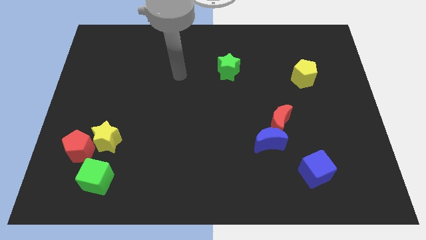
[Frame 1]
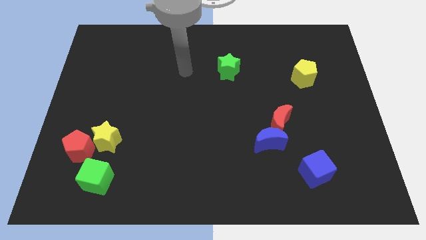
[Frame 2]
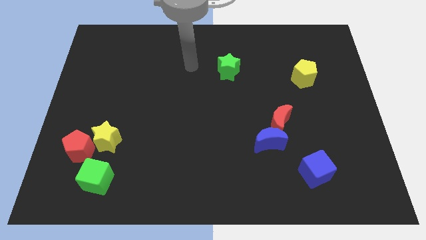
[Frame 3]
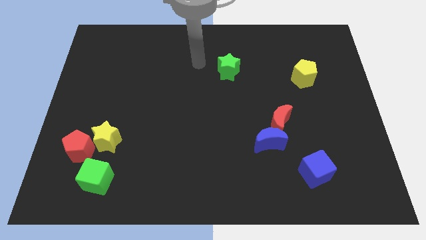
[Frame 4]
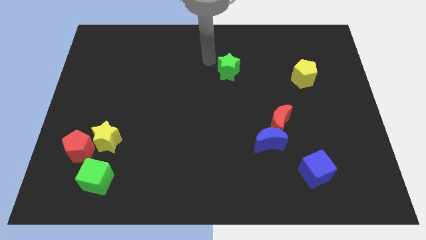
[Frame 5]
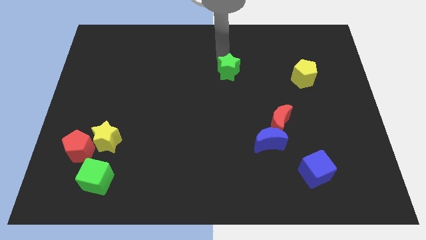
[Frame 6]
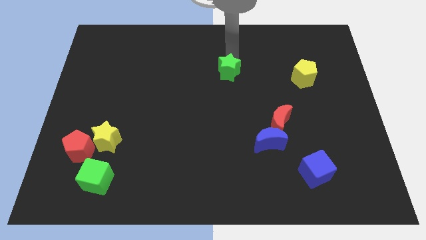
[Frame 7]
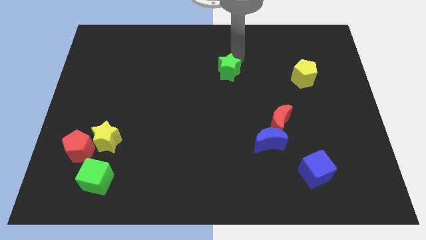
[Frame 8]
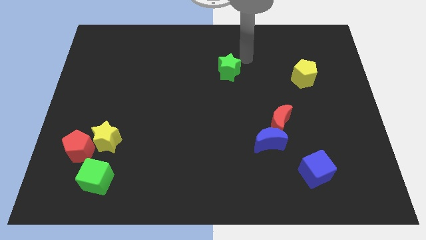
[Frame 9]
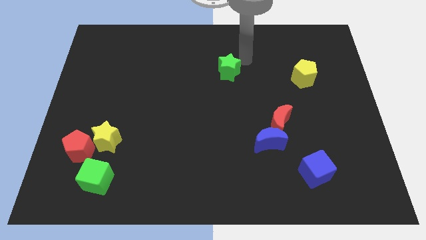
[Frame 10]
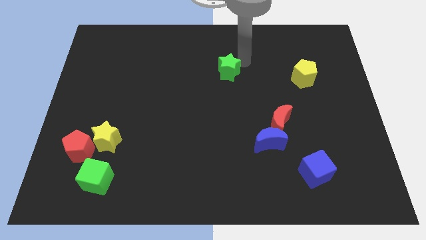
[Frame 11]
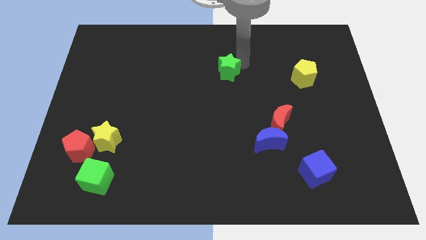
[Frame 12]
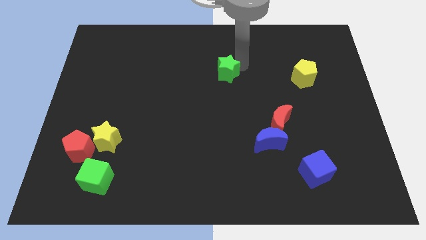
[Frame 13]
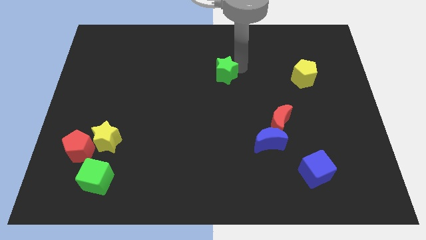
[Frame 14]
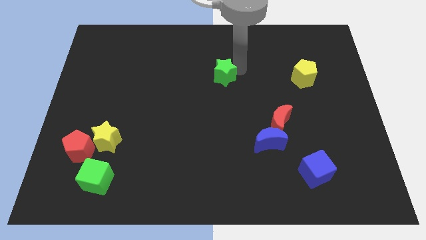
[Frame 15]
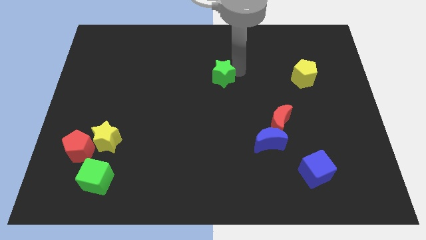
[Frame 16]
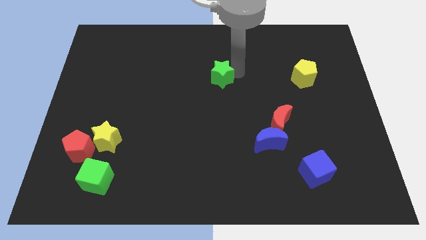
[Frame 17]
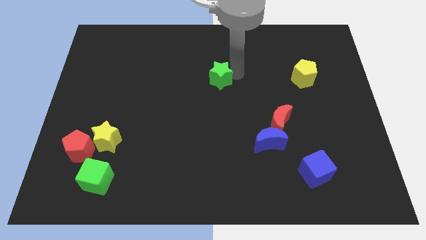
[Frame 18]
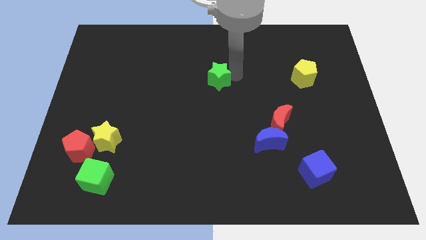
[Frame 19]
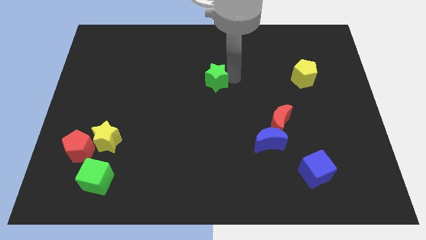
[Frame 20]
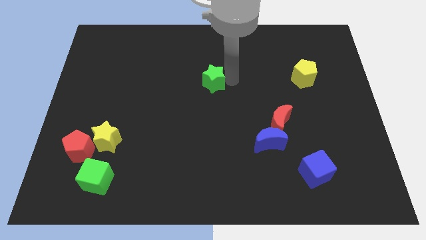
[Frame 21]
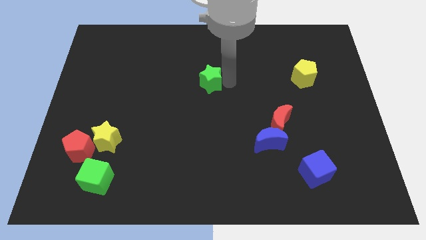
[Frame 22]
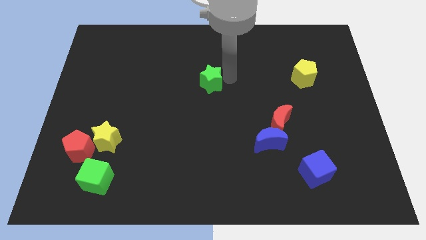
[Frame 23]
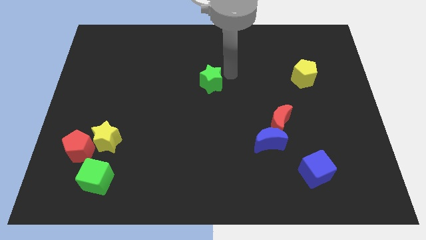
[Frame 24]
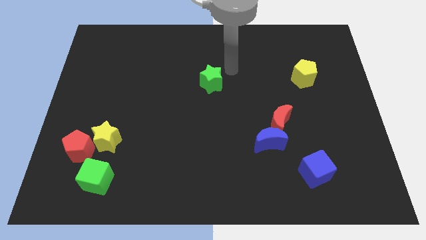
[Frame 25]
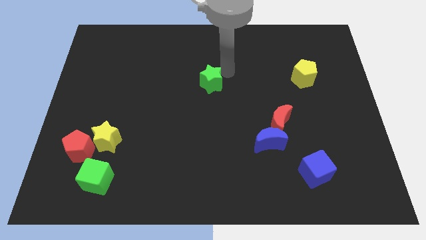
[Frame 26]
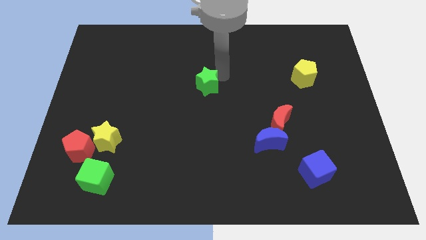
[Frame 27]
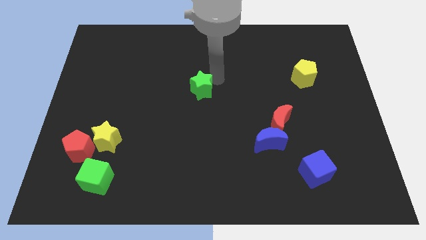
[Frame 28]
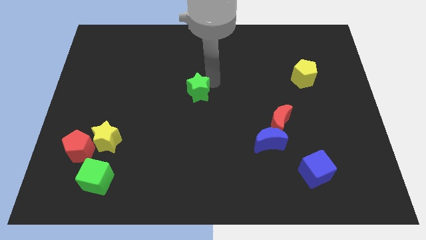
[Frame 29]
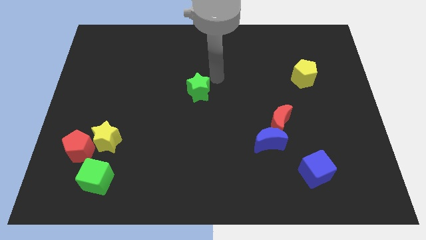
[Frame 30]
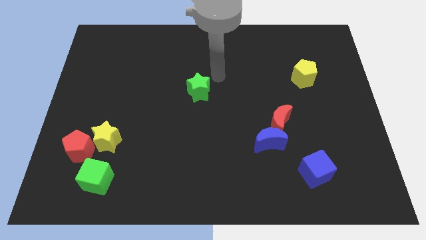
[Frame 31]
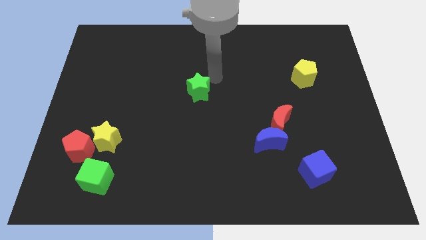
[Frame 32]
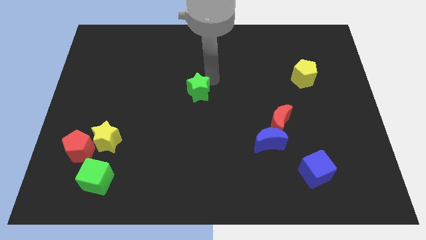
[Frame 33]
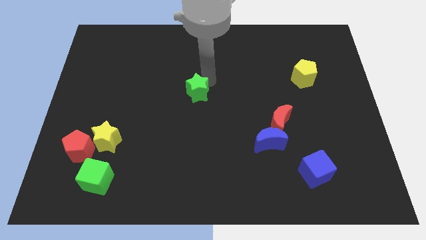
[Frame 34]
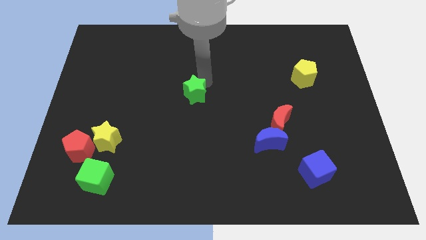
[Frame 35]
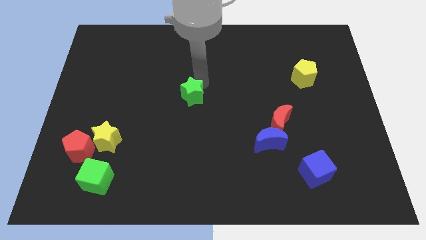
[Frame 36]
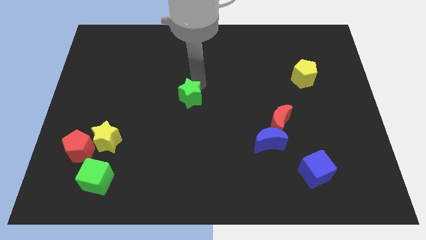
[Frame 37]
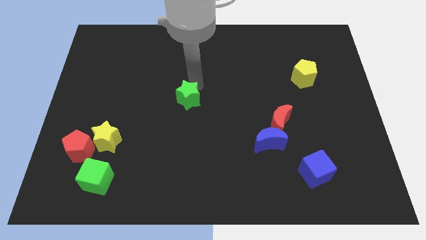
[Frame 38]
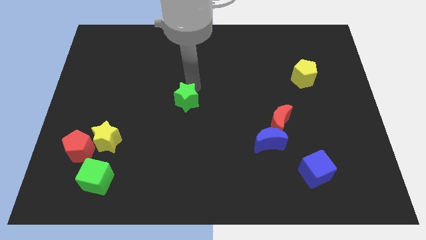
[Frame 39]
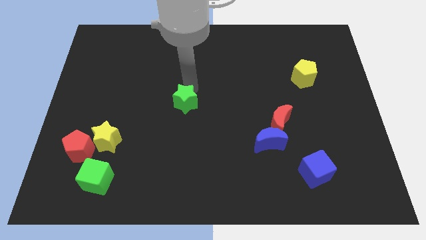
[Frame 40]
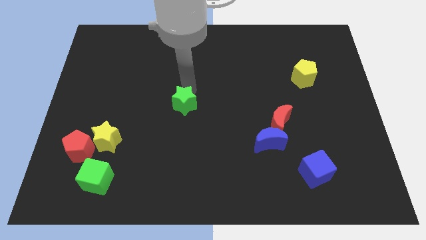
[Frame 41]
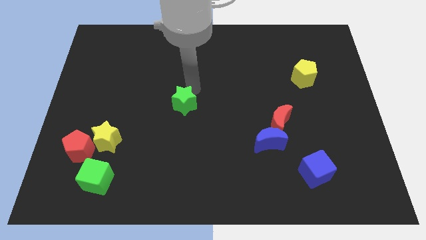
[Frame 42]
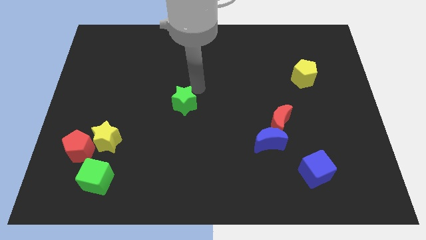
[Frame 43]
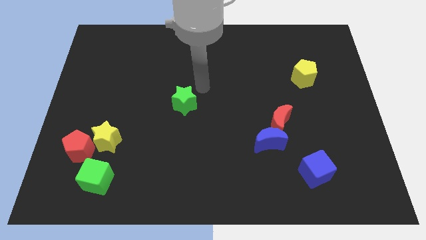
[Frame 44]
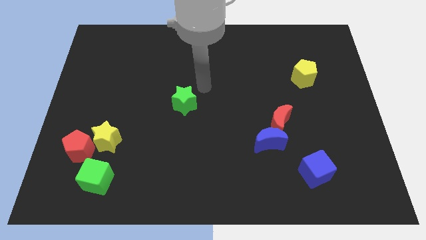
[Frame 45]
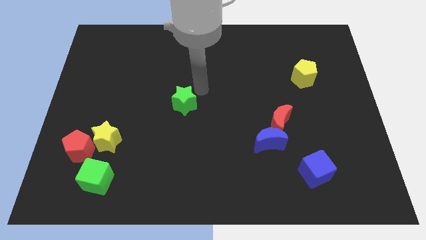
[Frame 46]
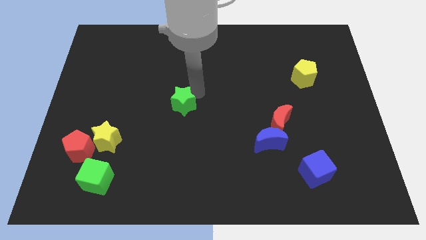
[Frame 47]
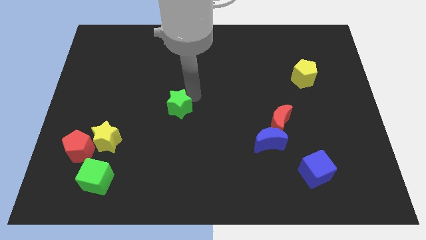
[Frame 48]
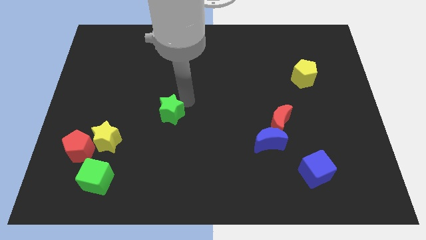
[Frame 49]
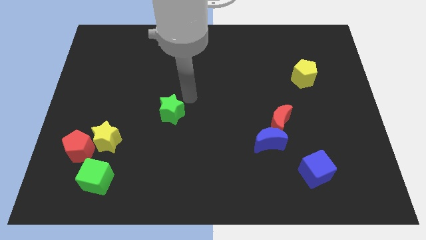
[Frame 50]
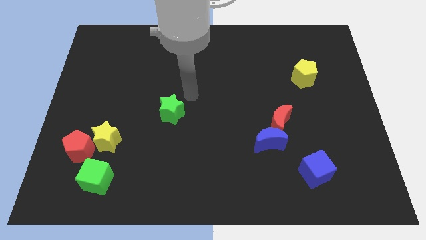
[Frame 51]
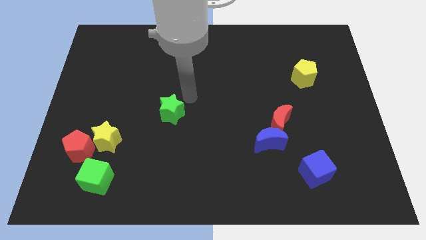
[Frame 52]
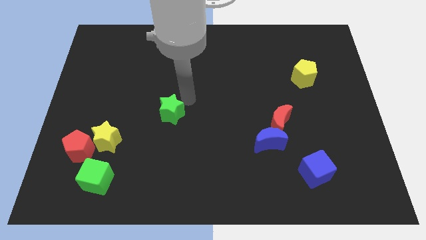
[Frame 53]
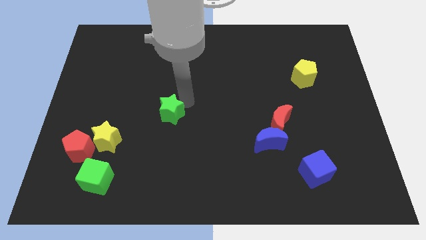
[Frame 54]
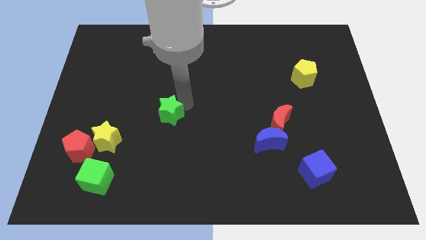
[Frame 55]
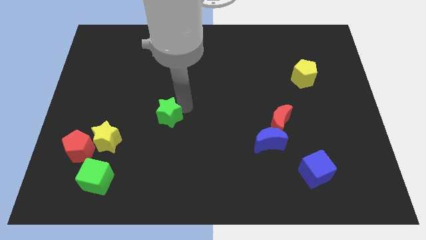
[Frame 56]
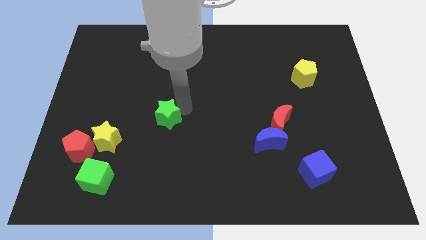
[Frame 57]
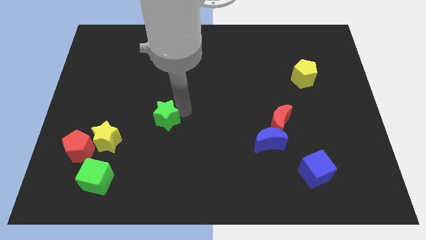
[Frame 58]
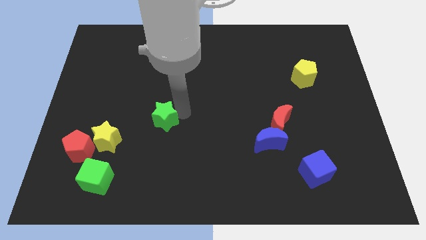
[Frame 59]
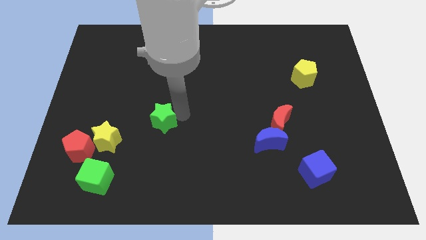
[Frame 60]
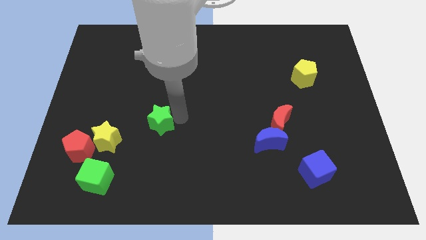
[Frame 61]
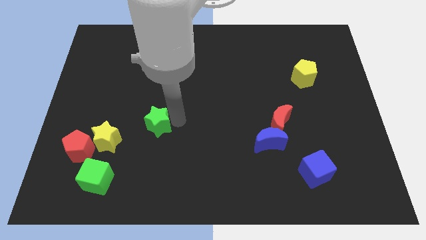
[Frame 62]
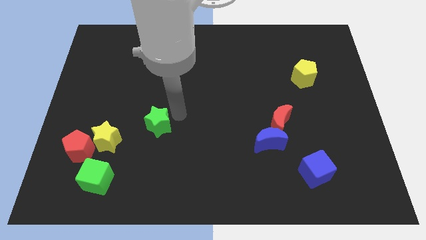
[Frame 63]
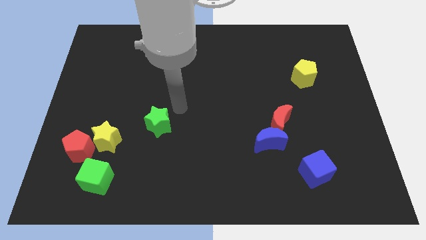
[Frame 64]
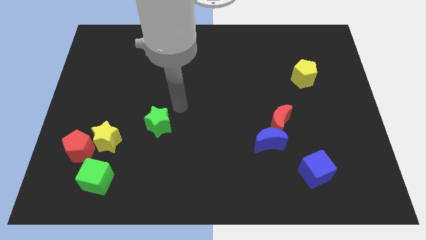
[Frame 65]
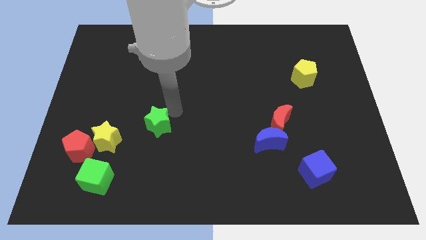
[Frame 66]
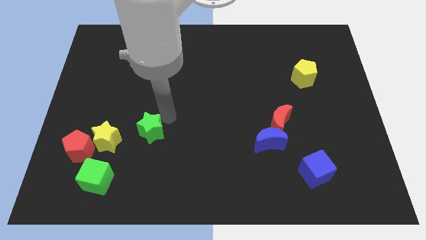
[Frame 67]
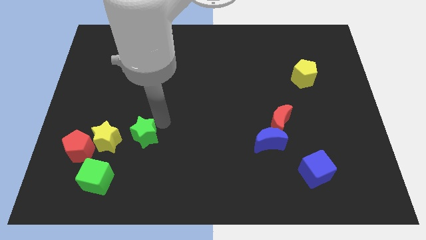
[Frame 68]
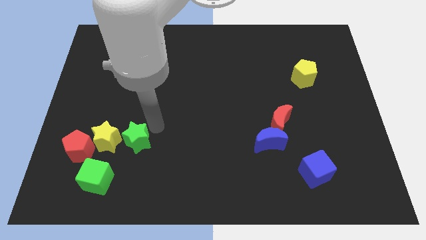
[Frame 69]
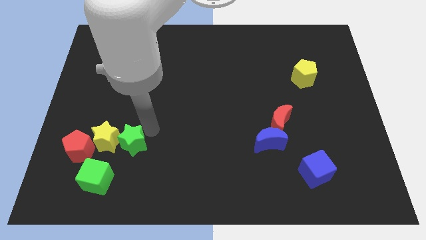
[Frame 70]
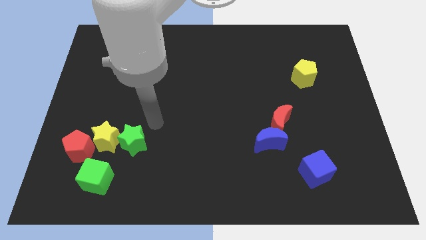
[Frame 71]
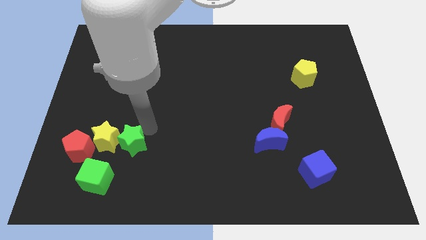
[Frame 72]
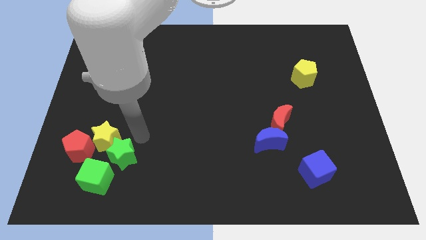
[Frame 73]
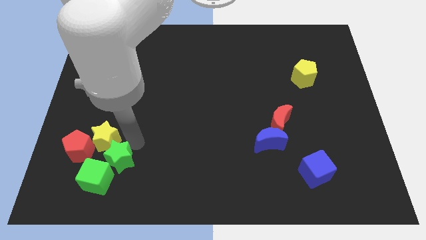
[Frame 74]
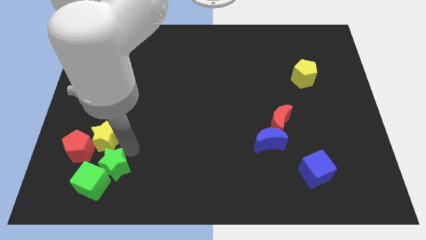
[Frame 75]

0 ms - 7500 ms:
move the green star next to the green cube

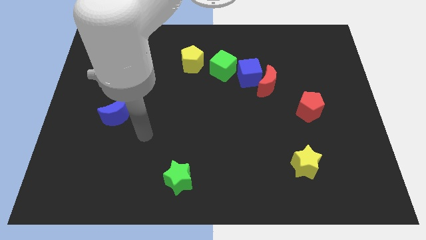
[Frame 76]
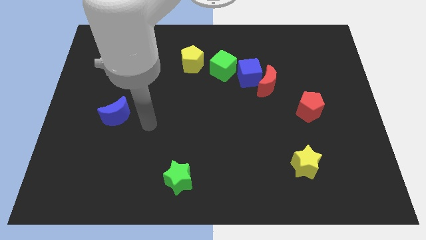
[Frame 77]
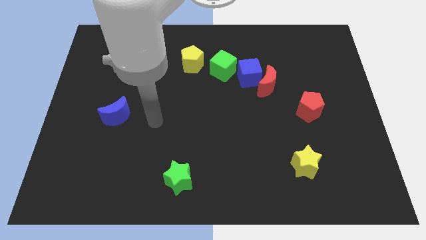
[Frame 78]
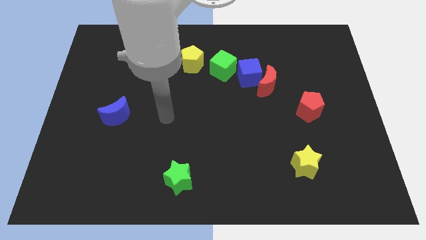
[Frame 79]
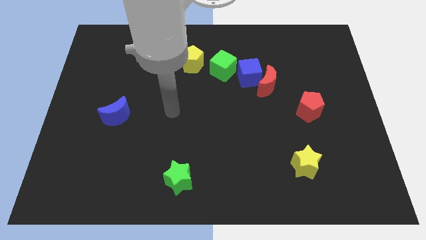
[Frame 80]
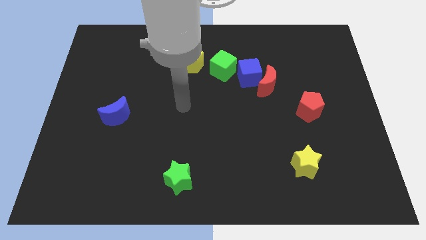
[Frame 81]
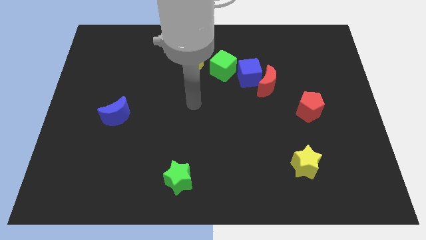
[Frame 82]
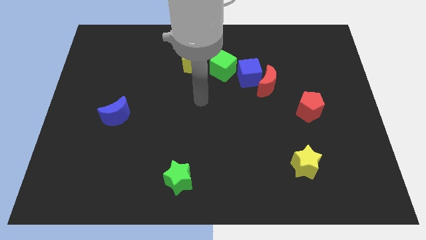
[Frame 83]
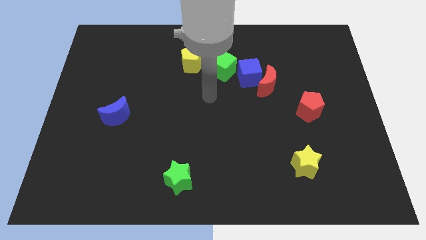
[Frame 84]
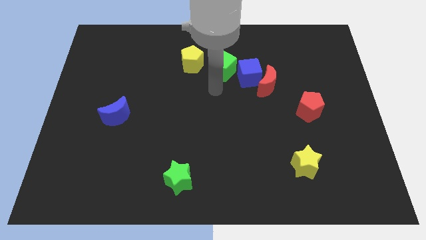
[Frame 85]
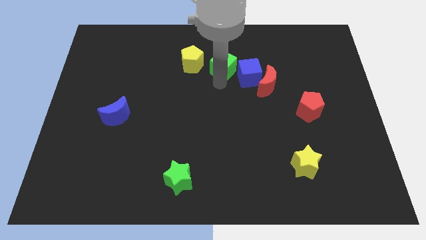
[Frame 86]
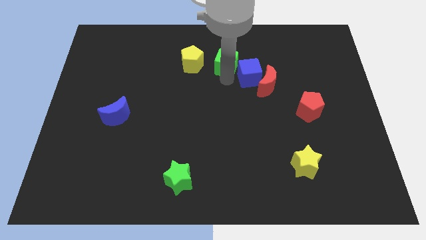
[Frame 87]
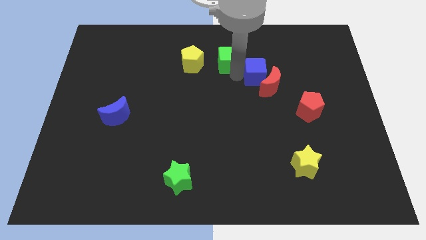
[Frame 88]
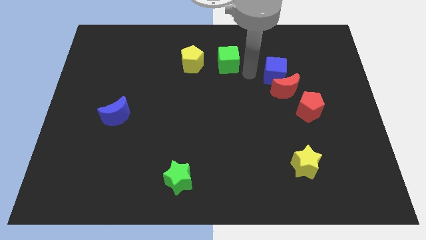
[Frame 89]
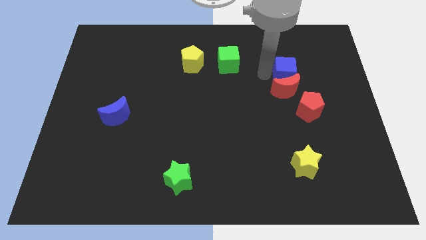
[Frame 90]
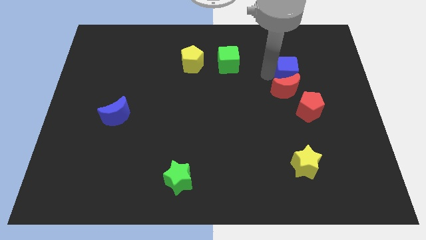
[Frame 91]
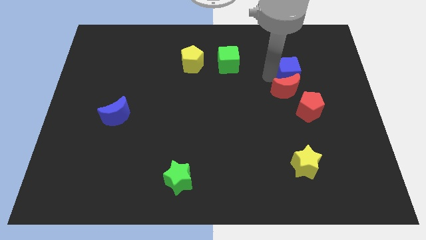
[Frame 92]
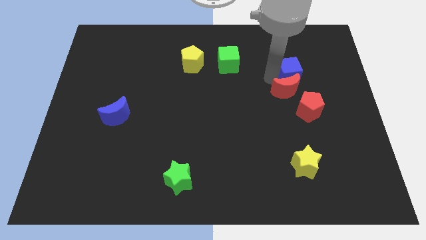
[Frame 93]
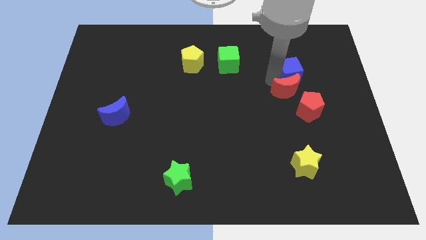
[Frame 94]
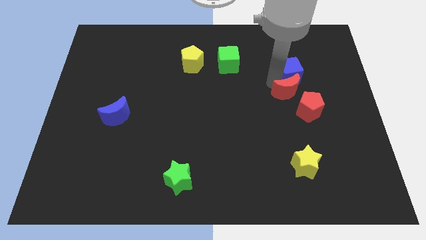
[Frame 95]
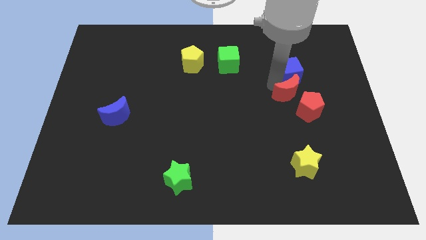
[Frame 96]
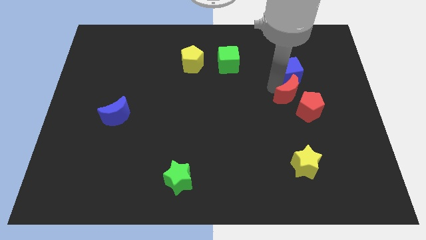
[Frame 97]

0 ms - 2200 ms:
move the red moon to the red pentagon
